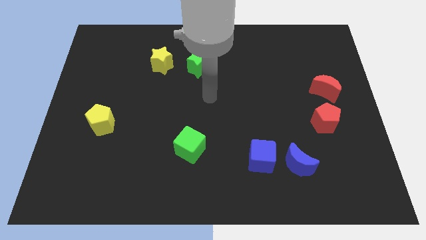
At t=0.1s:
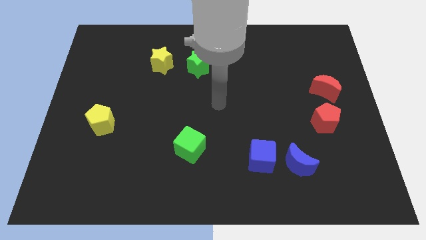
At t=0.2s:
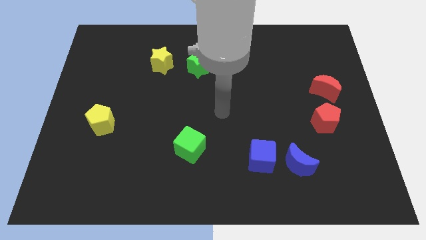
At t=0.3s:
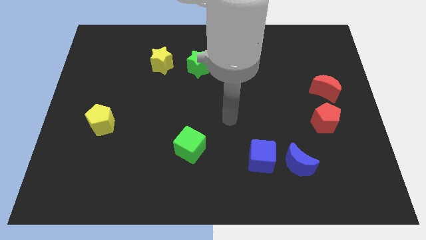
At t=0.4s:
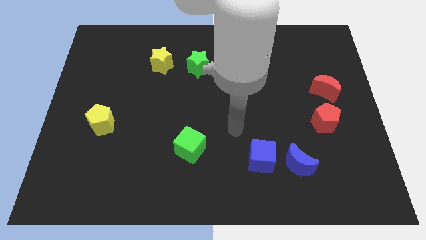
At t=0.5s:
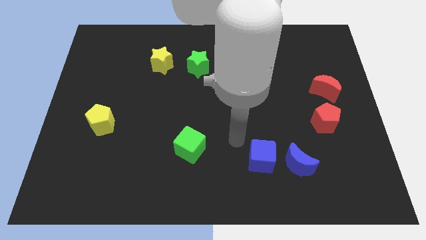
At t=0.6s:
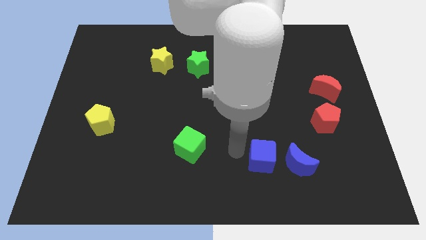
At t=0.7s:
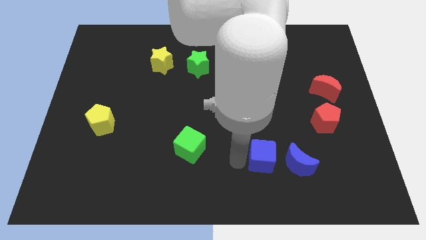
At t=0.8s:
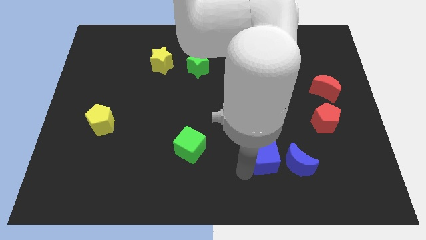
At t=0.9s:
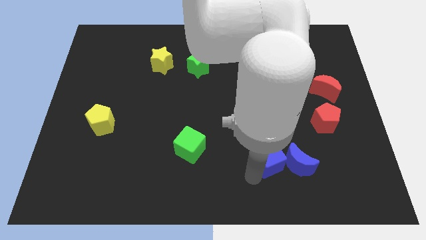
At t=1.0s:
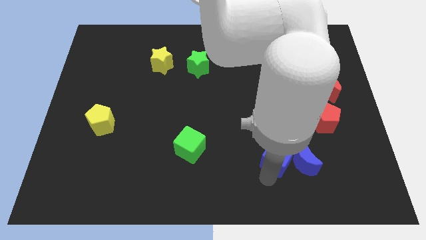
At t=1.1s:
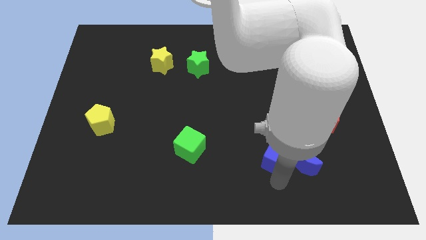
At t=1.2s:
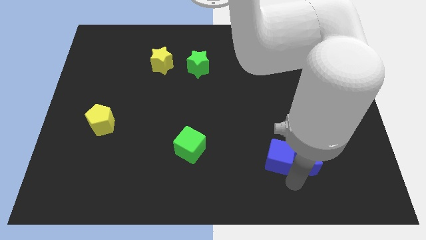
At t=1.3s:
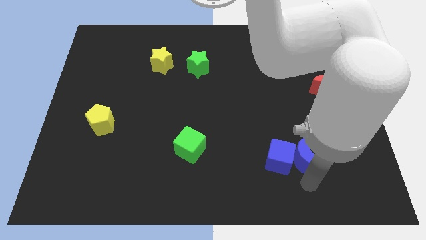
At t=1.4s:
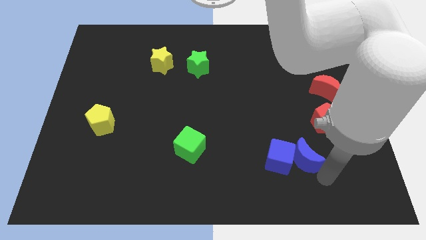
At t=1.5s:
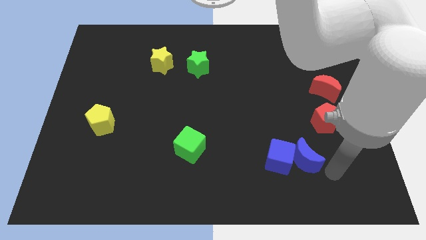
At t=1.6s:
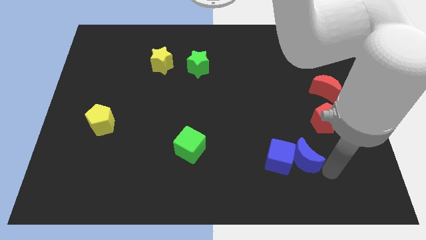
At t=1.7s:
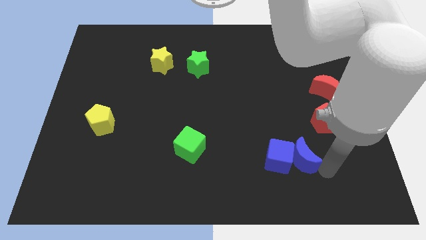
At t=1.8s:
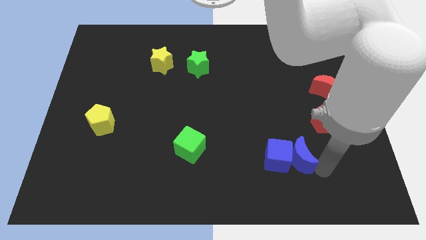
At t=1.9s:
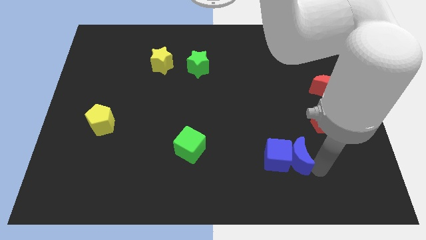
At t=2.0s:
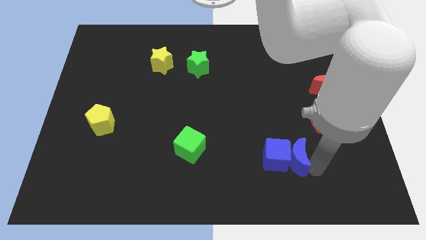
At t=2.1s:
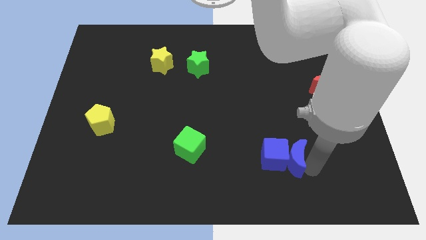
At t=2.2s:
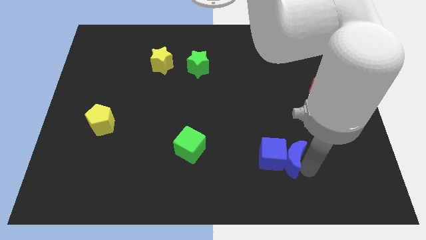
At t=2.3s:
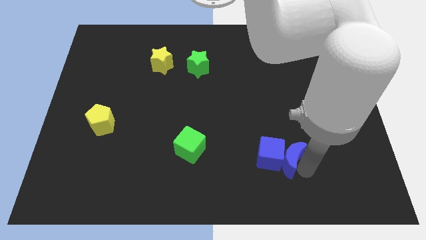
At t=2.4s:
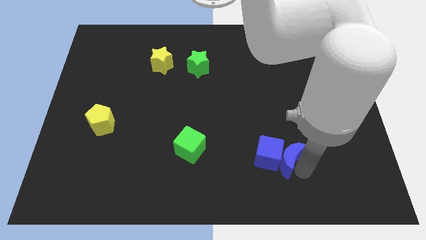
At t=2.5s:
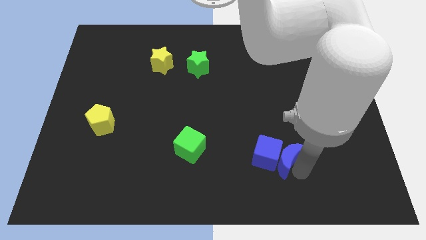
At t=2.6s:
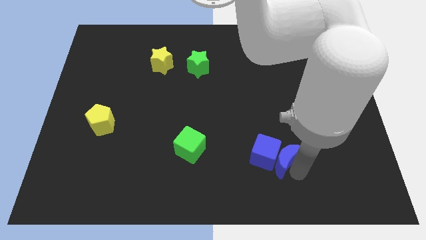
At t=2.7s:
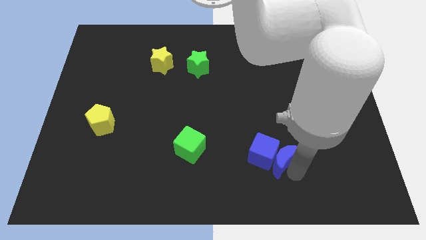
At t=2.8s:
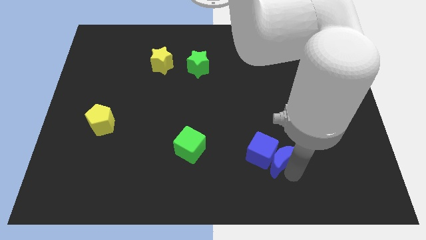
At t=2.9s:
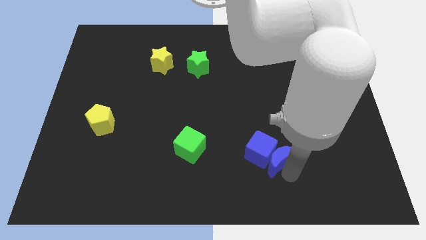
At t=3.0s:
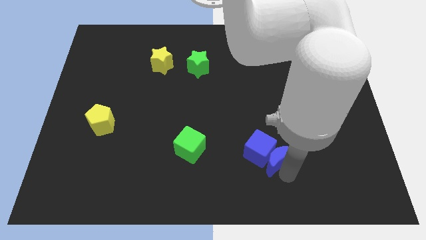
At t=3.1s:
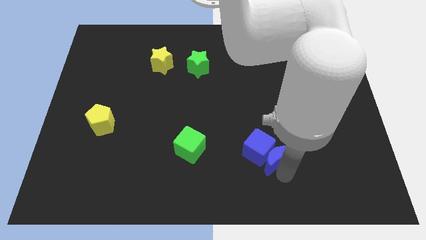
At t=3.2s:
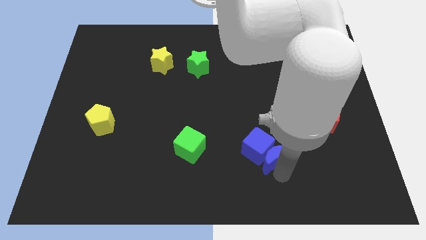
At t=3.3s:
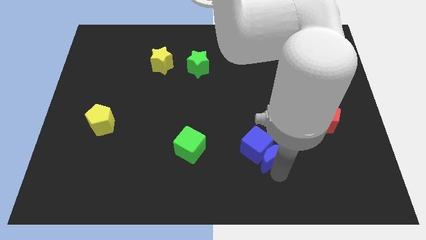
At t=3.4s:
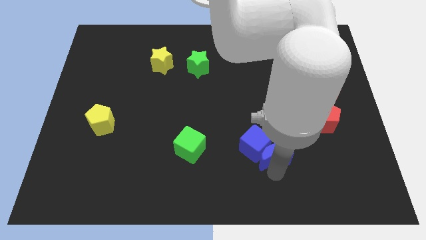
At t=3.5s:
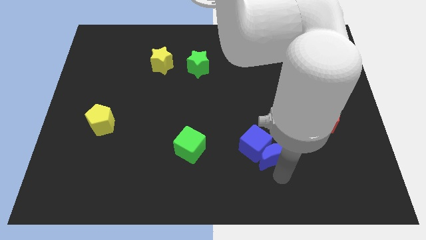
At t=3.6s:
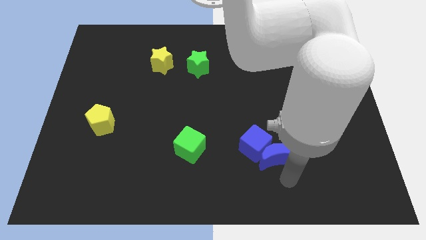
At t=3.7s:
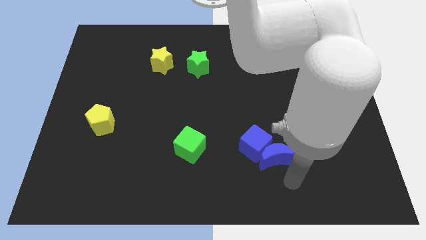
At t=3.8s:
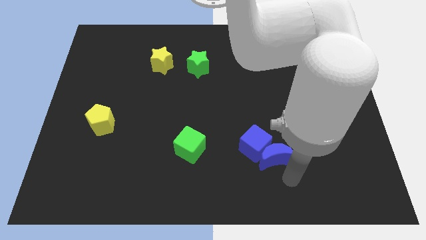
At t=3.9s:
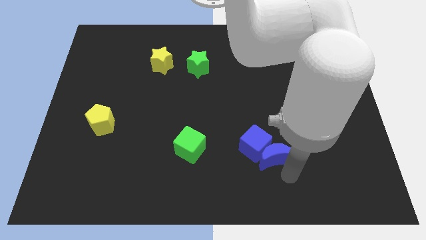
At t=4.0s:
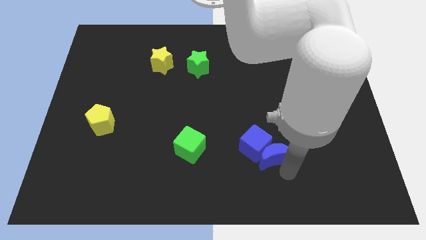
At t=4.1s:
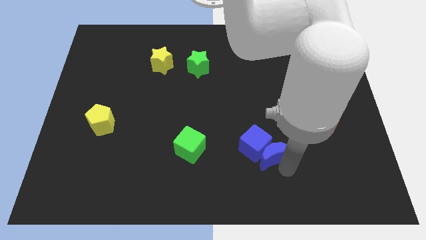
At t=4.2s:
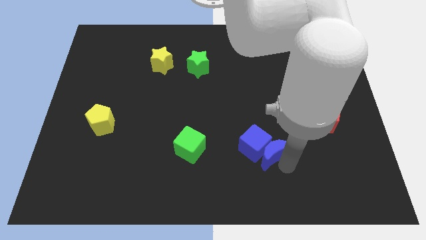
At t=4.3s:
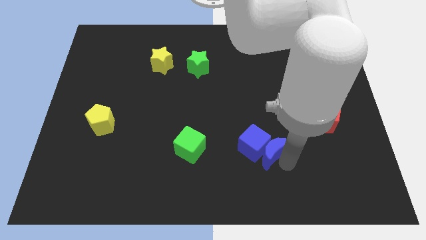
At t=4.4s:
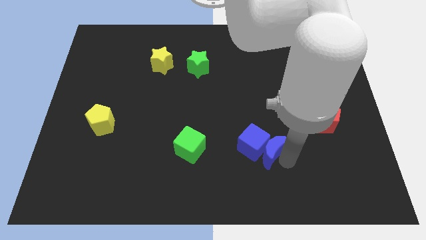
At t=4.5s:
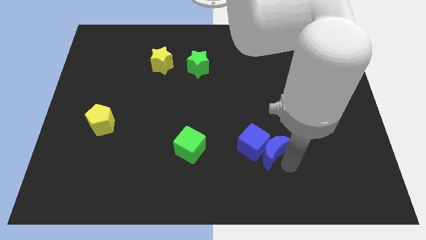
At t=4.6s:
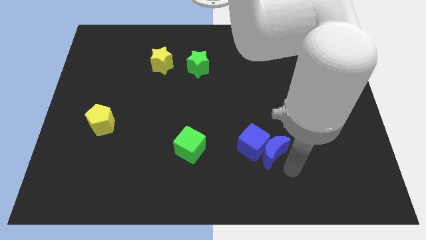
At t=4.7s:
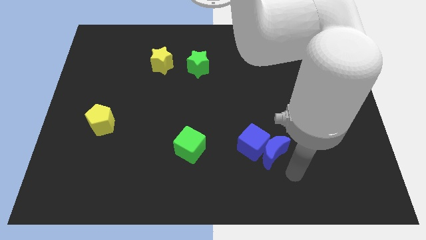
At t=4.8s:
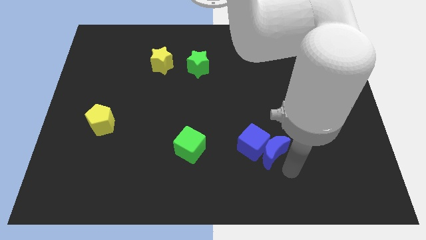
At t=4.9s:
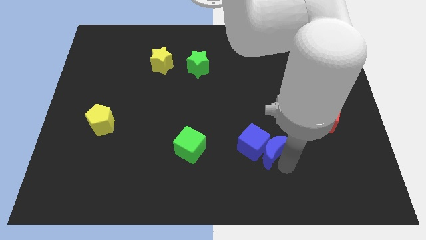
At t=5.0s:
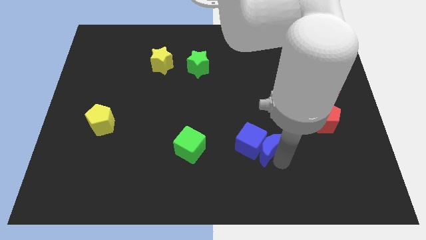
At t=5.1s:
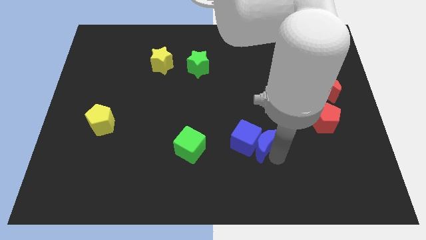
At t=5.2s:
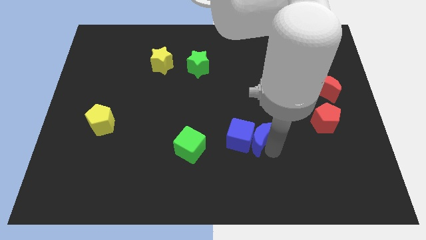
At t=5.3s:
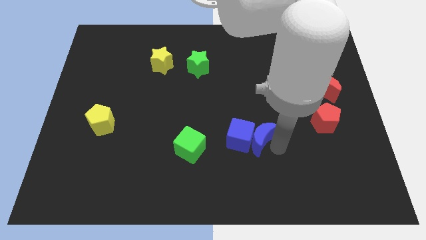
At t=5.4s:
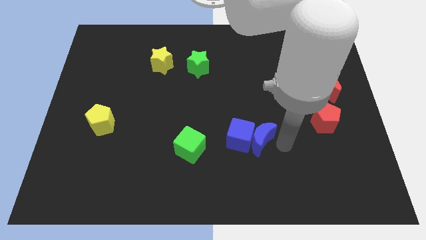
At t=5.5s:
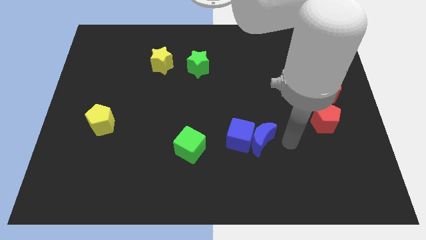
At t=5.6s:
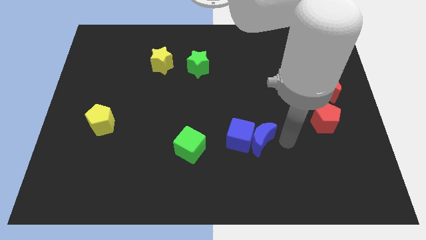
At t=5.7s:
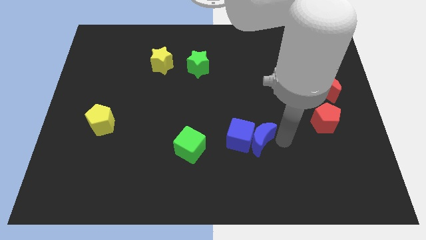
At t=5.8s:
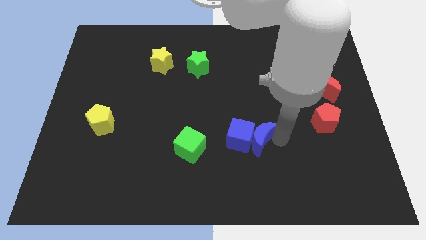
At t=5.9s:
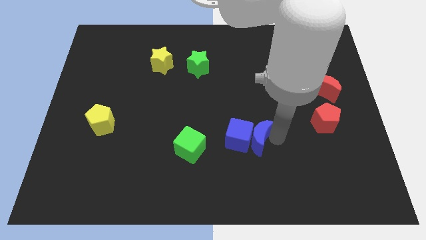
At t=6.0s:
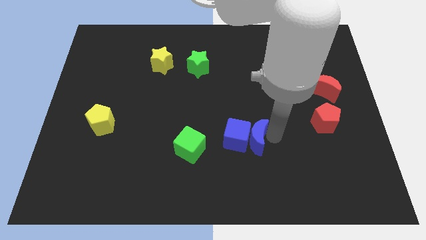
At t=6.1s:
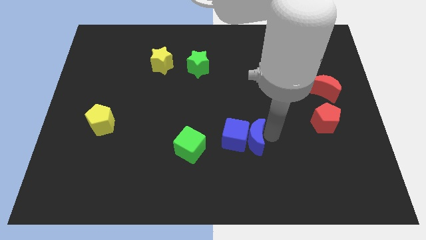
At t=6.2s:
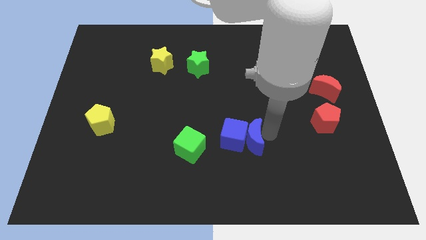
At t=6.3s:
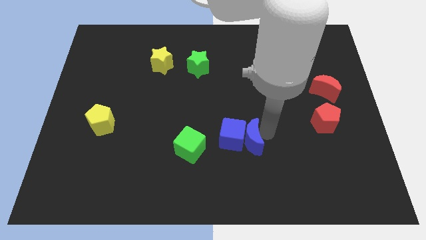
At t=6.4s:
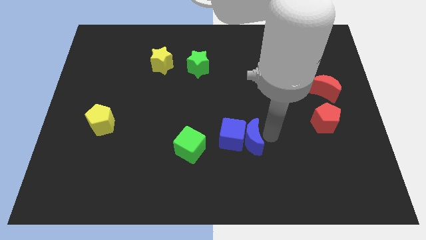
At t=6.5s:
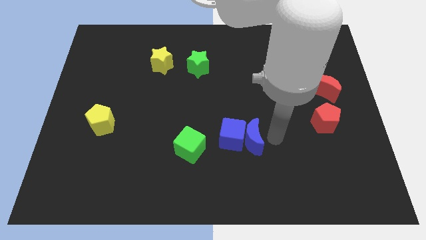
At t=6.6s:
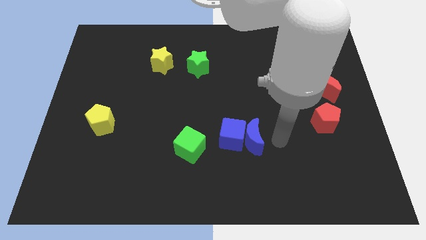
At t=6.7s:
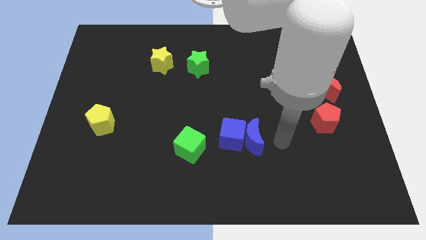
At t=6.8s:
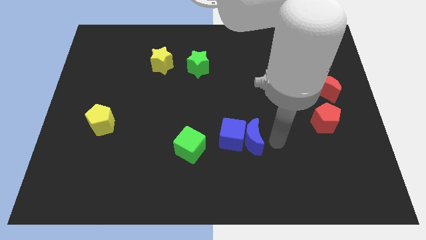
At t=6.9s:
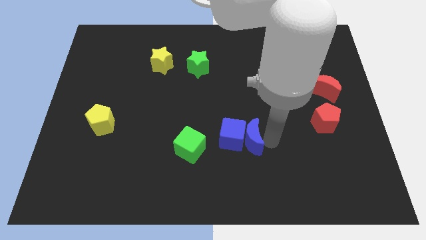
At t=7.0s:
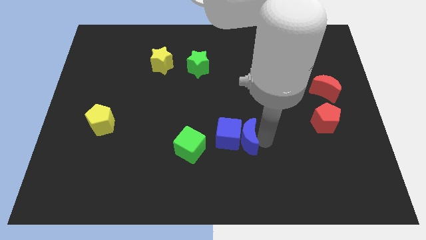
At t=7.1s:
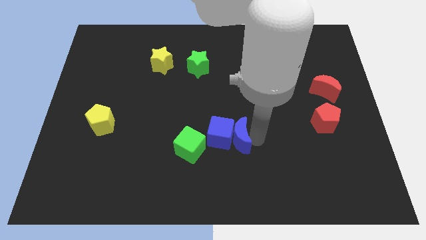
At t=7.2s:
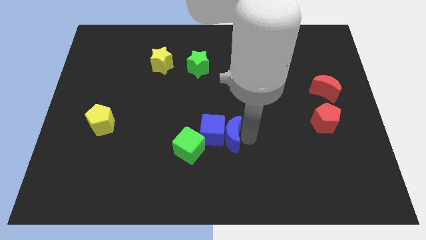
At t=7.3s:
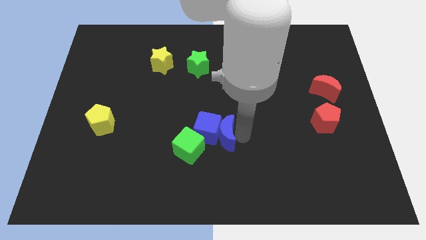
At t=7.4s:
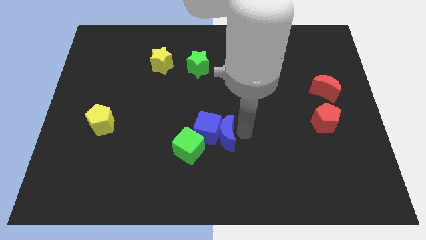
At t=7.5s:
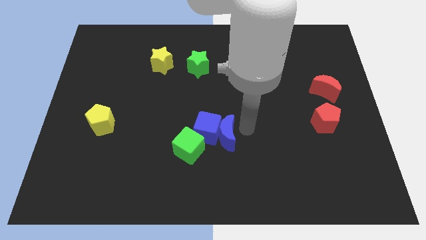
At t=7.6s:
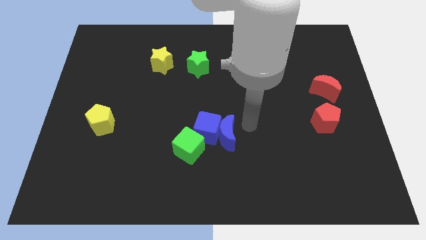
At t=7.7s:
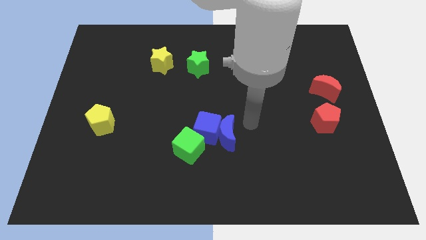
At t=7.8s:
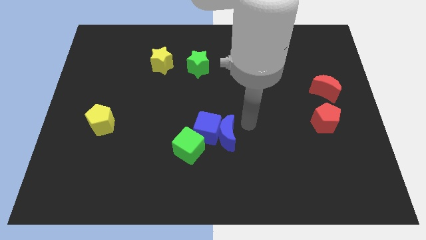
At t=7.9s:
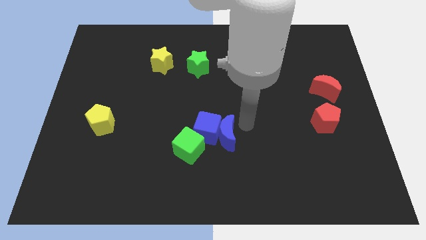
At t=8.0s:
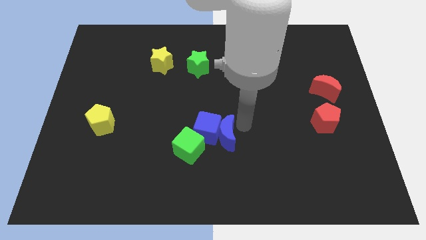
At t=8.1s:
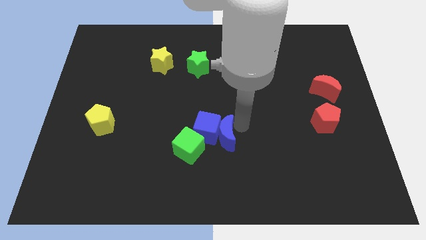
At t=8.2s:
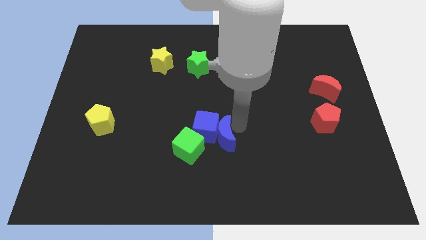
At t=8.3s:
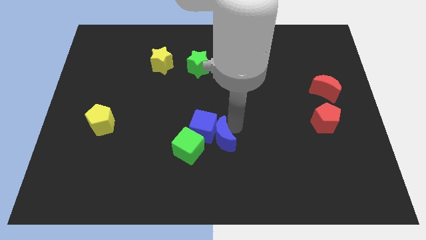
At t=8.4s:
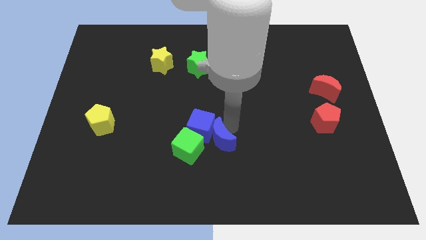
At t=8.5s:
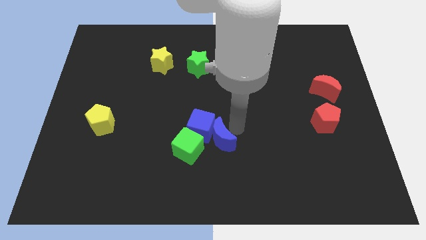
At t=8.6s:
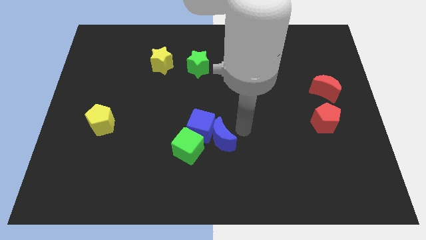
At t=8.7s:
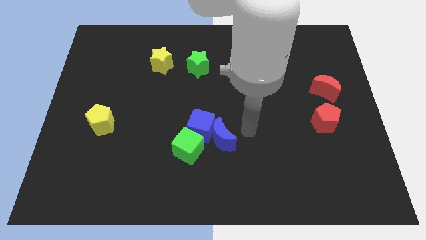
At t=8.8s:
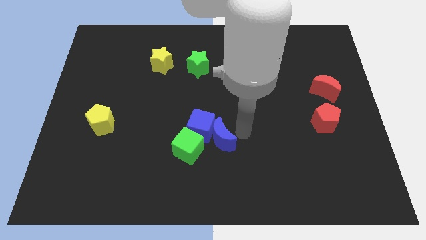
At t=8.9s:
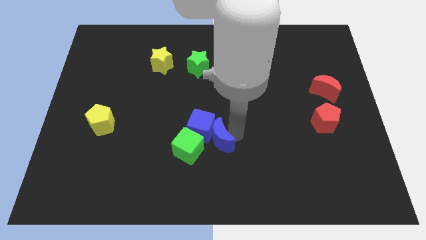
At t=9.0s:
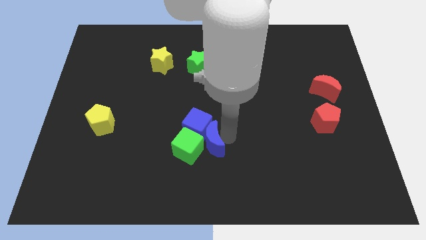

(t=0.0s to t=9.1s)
move the blue moon next to the green cube
